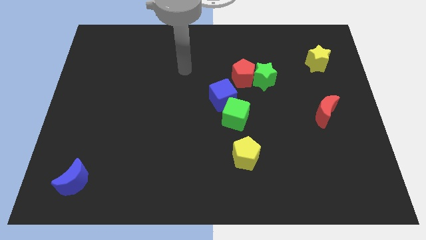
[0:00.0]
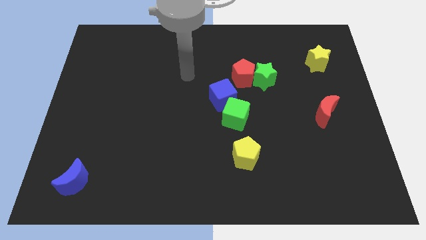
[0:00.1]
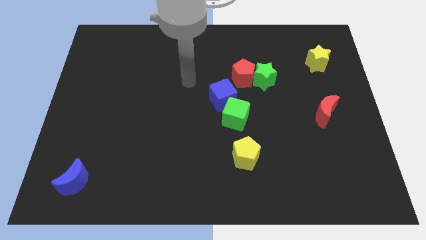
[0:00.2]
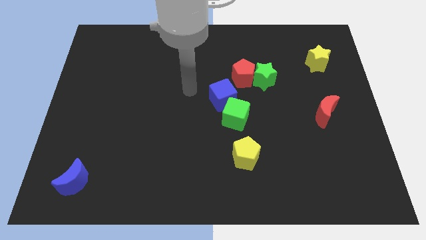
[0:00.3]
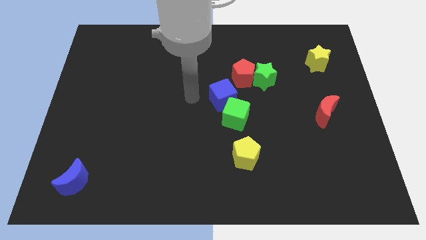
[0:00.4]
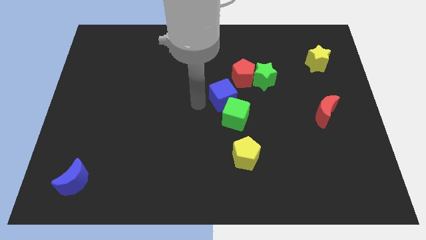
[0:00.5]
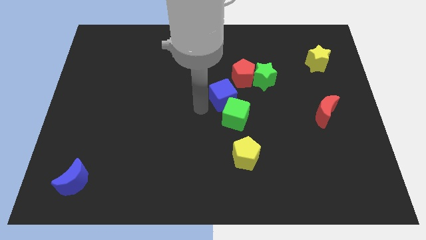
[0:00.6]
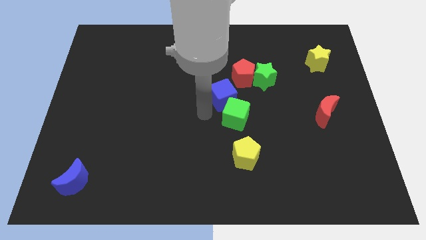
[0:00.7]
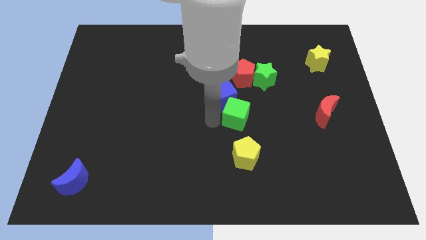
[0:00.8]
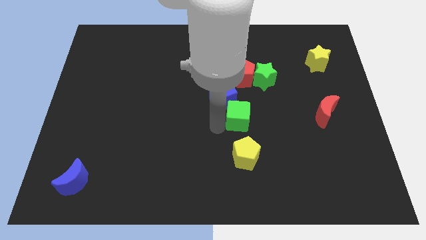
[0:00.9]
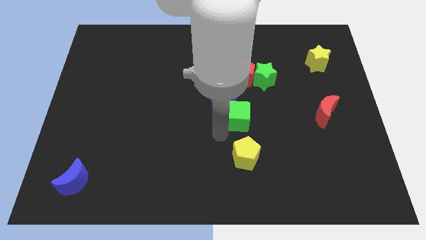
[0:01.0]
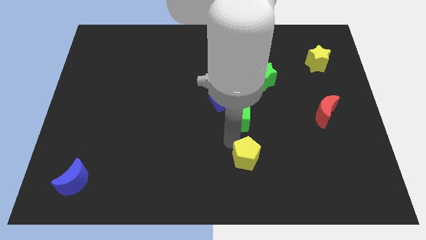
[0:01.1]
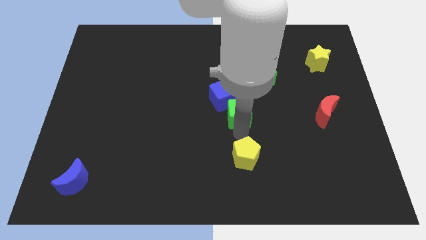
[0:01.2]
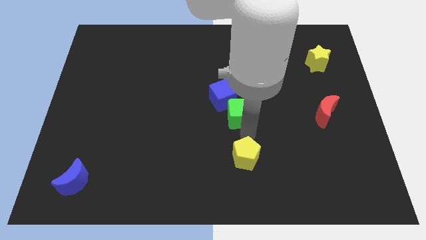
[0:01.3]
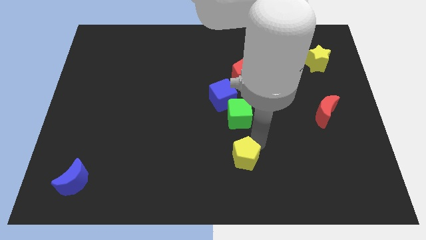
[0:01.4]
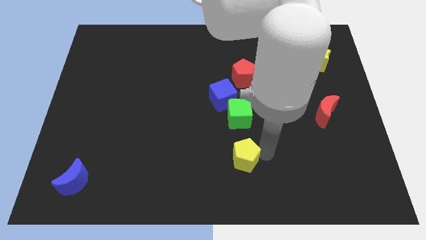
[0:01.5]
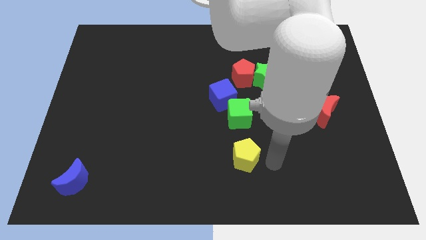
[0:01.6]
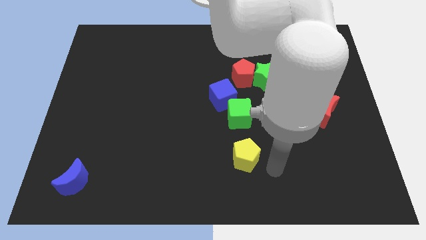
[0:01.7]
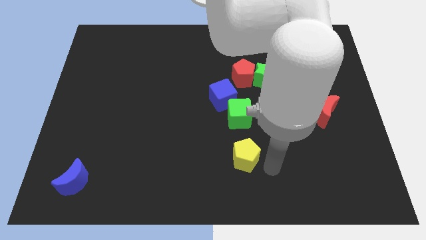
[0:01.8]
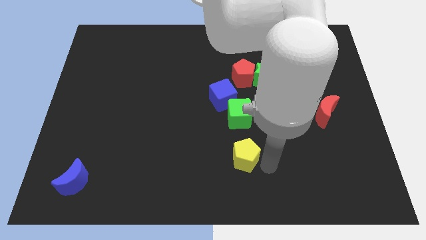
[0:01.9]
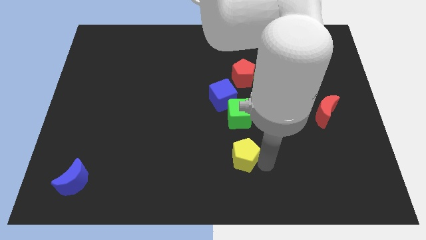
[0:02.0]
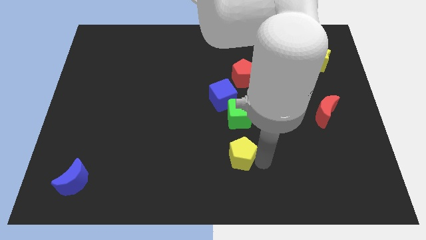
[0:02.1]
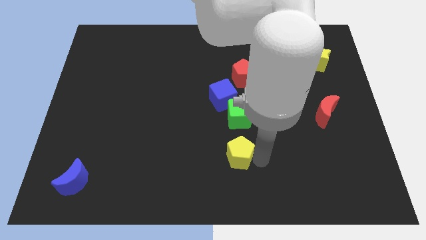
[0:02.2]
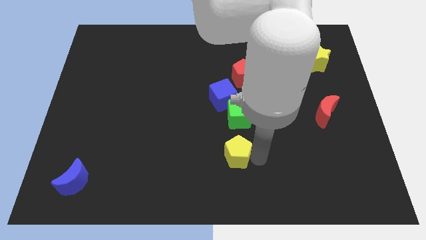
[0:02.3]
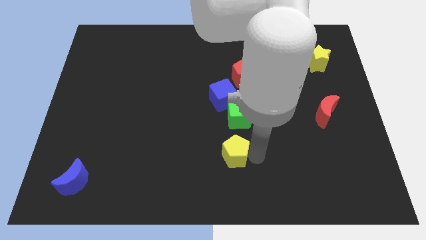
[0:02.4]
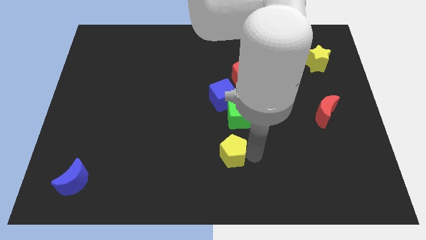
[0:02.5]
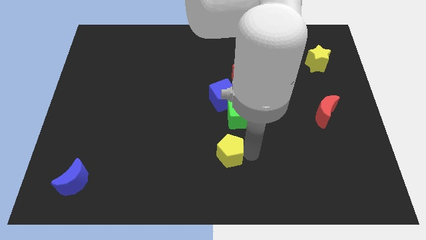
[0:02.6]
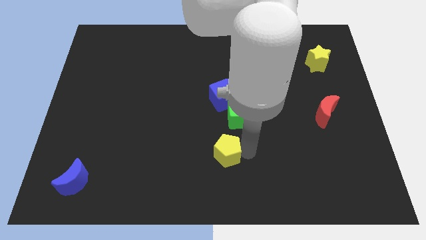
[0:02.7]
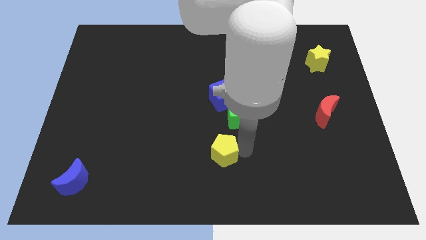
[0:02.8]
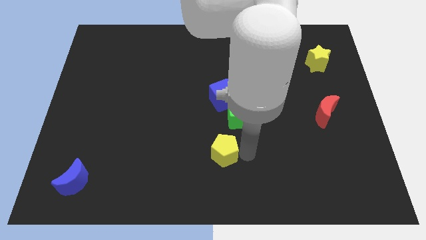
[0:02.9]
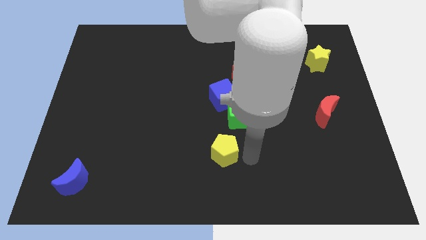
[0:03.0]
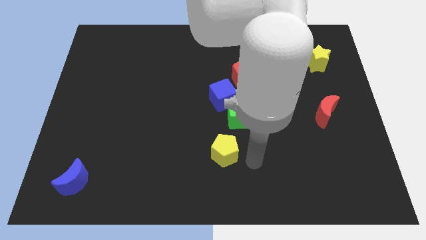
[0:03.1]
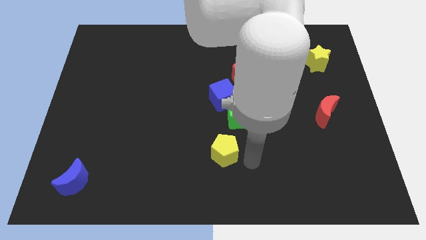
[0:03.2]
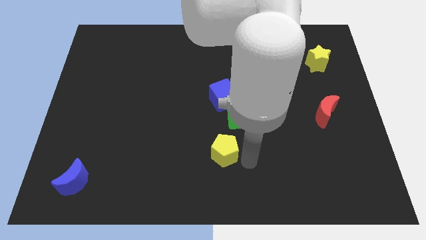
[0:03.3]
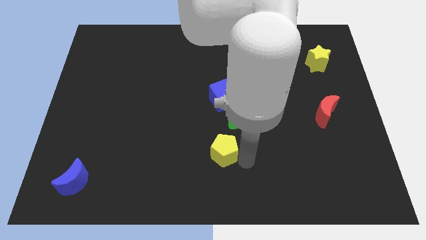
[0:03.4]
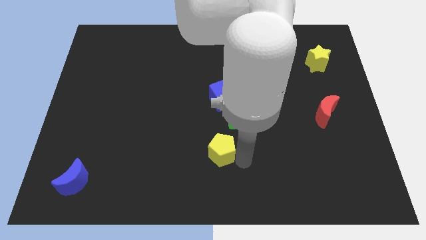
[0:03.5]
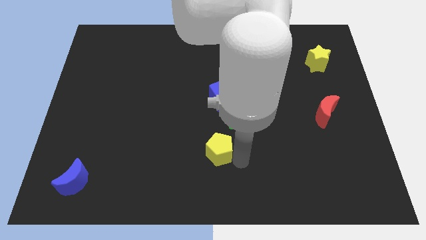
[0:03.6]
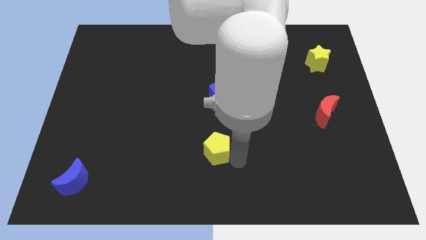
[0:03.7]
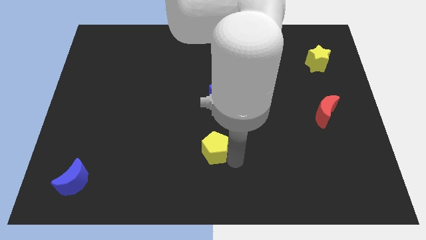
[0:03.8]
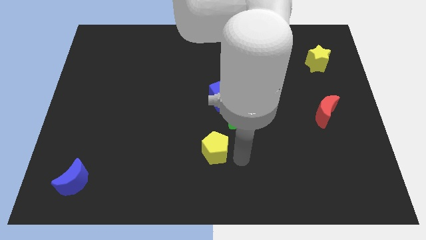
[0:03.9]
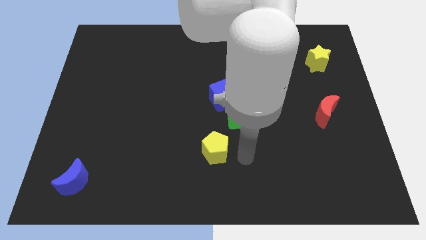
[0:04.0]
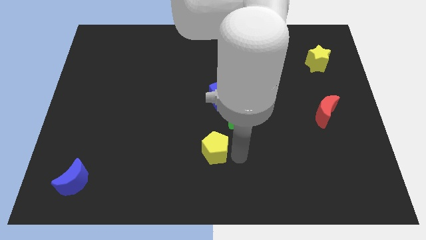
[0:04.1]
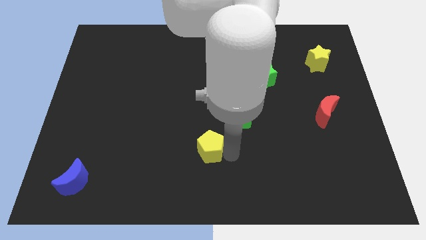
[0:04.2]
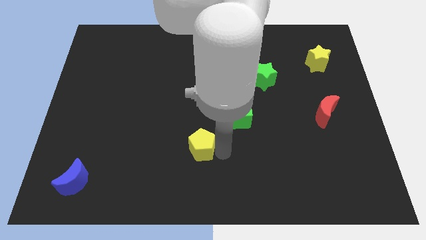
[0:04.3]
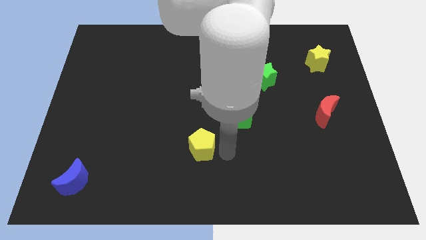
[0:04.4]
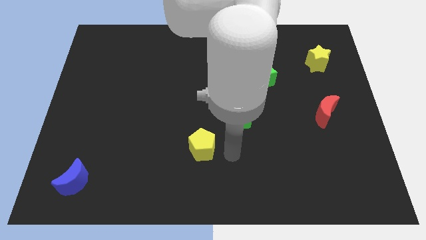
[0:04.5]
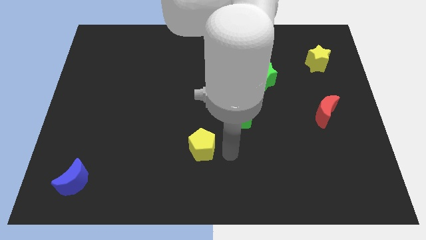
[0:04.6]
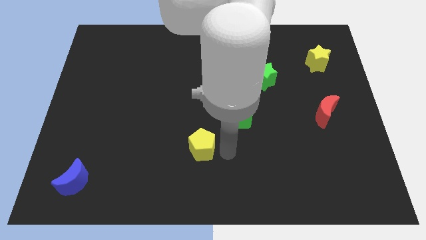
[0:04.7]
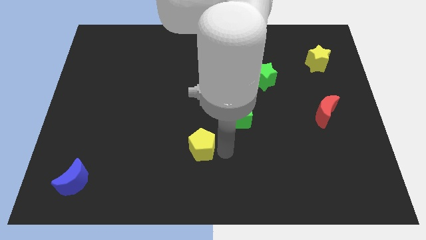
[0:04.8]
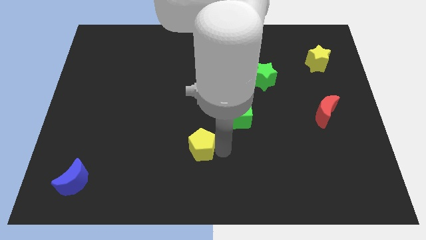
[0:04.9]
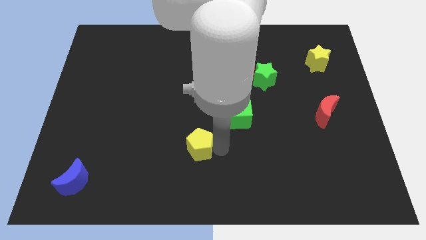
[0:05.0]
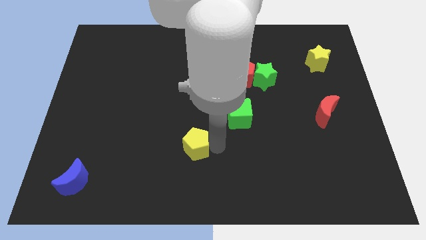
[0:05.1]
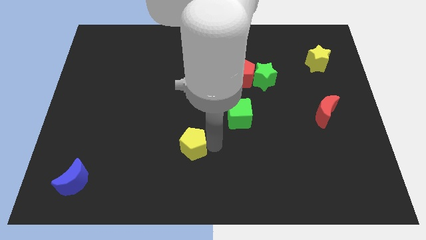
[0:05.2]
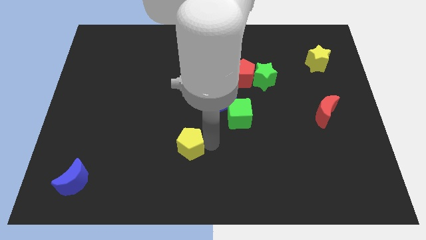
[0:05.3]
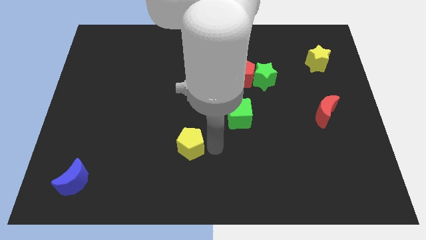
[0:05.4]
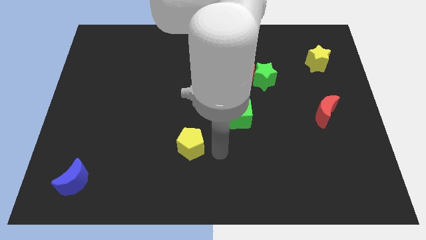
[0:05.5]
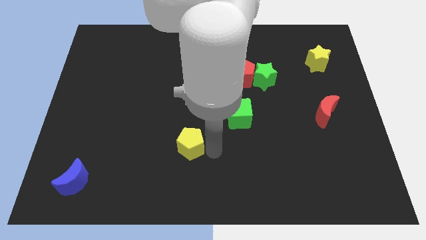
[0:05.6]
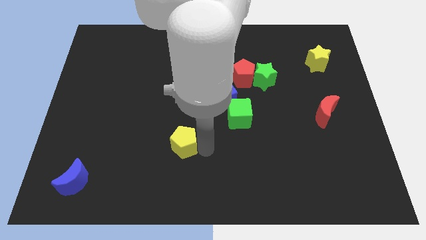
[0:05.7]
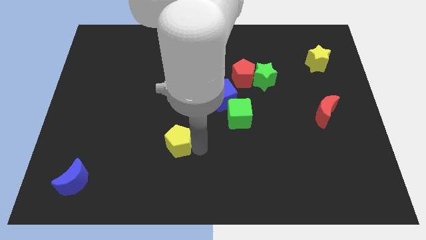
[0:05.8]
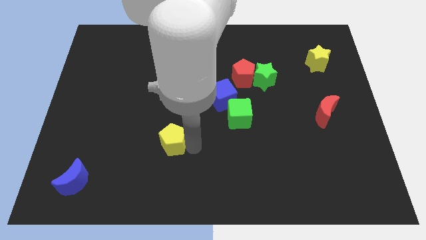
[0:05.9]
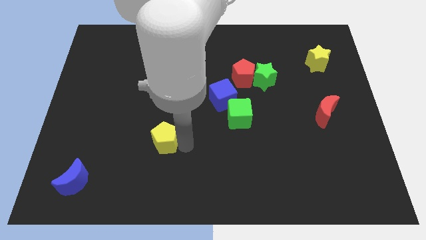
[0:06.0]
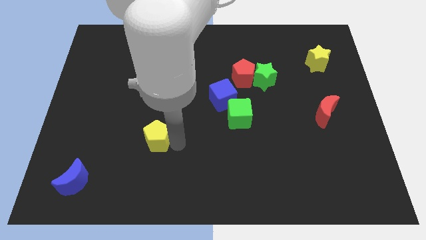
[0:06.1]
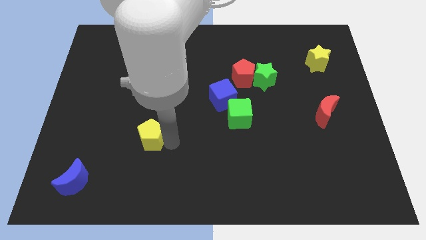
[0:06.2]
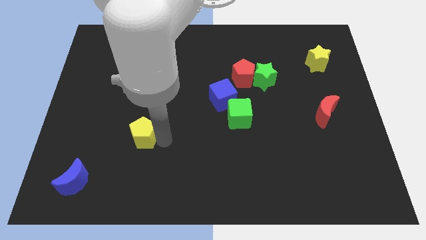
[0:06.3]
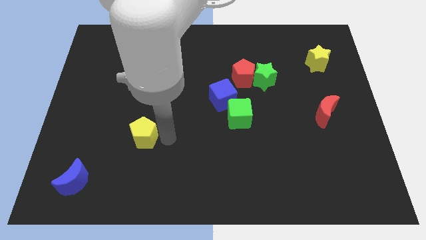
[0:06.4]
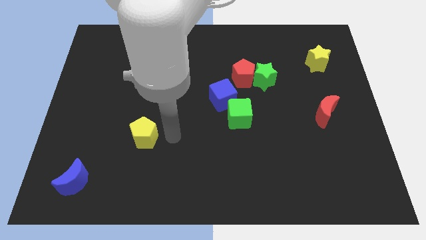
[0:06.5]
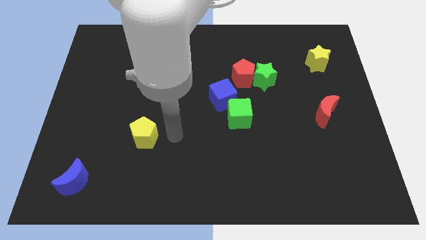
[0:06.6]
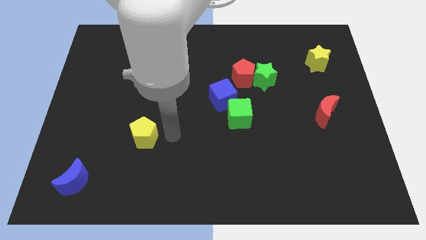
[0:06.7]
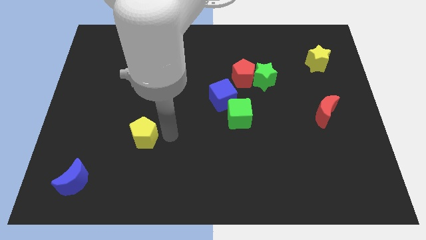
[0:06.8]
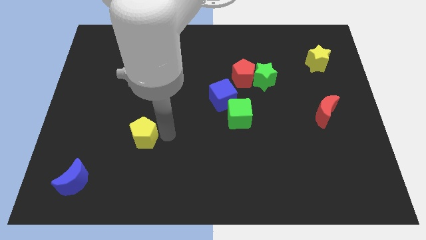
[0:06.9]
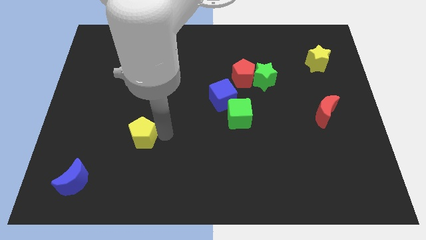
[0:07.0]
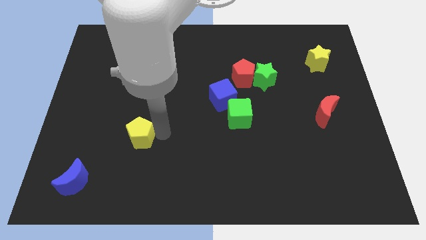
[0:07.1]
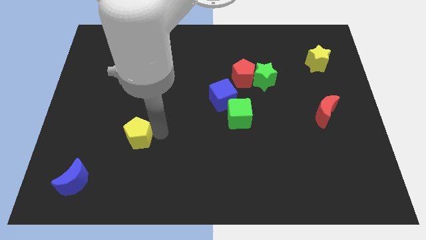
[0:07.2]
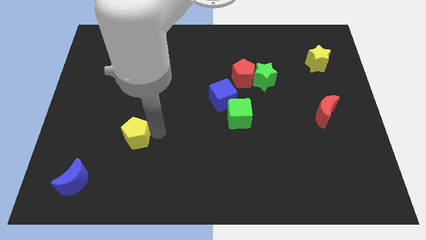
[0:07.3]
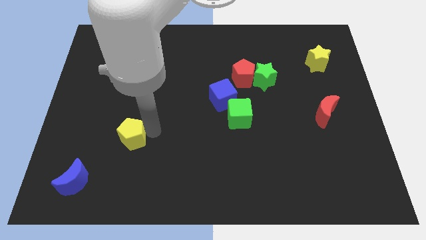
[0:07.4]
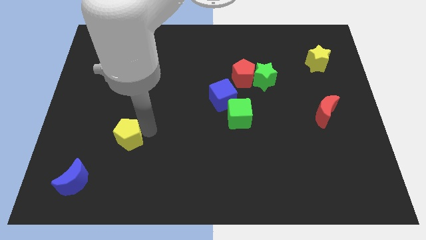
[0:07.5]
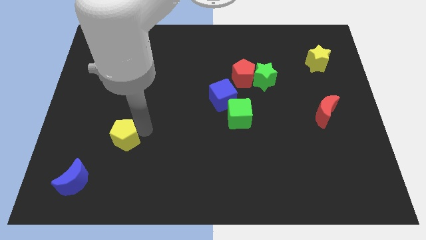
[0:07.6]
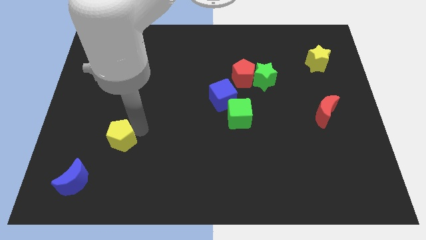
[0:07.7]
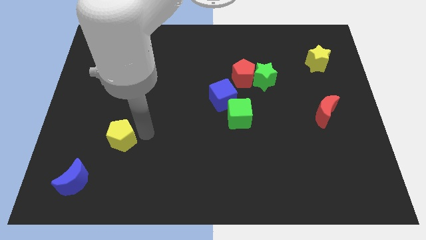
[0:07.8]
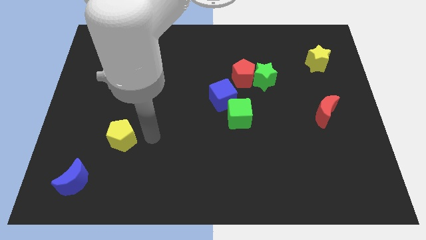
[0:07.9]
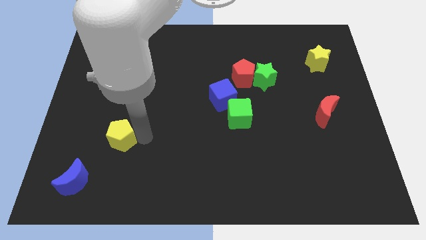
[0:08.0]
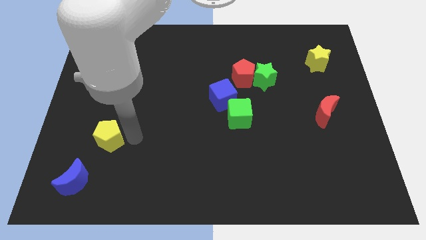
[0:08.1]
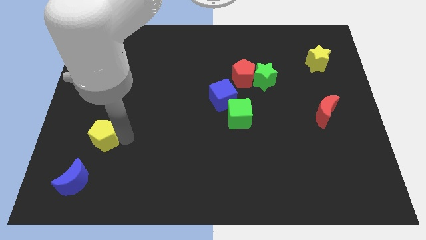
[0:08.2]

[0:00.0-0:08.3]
put the yellow pentagon above the blue moon
